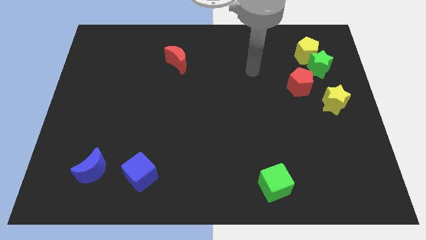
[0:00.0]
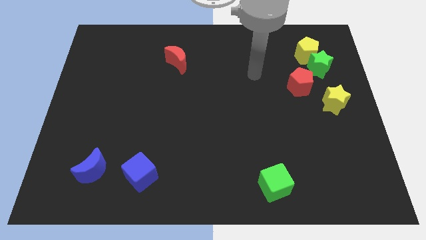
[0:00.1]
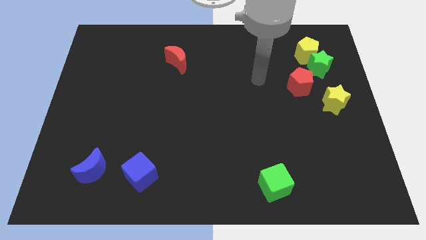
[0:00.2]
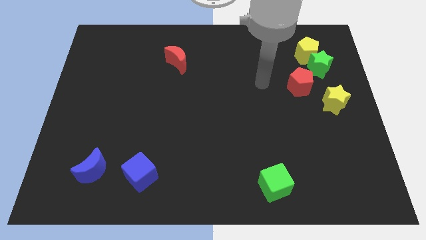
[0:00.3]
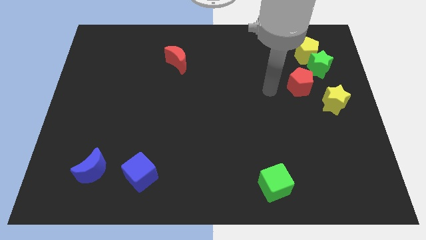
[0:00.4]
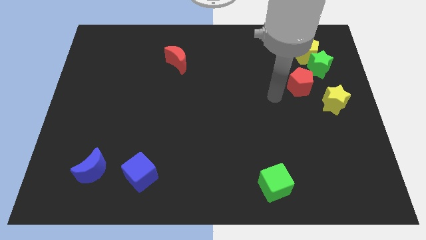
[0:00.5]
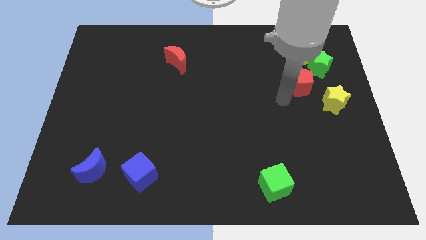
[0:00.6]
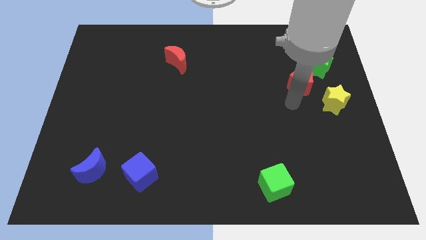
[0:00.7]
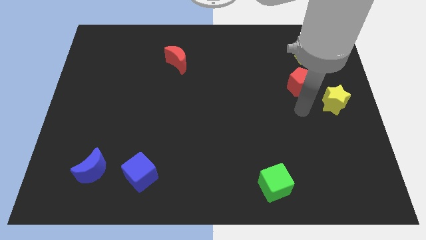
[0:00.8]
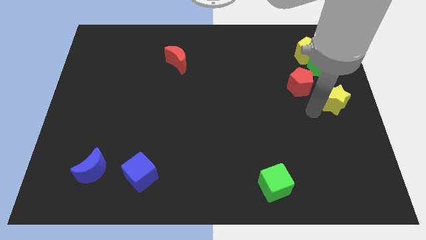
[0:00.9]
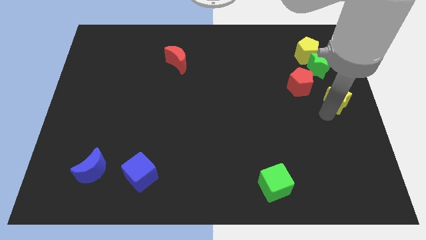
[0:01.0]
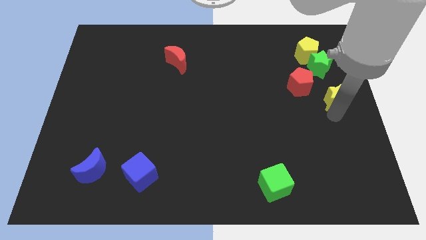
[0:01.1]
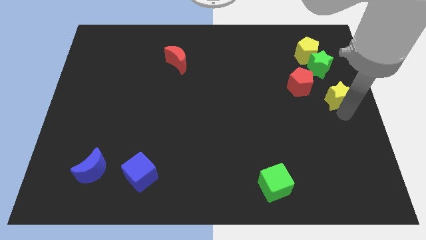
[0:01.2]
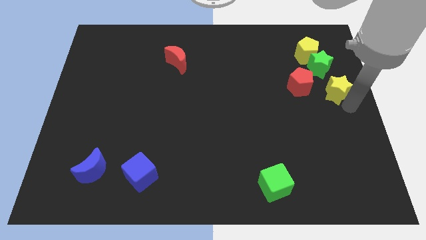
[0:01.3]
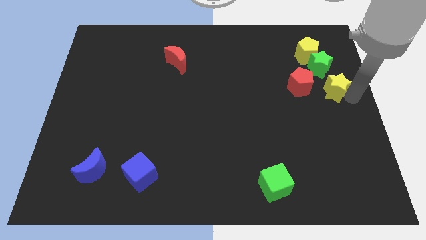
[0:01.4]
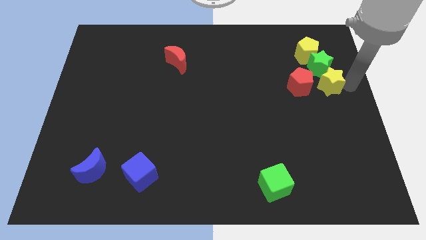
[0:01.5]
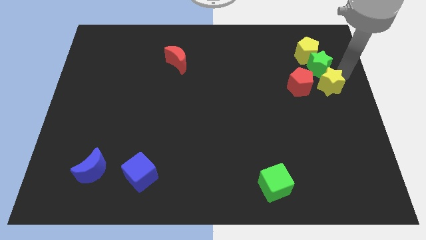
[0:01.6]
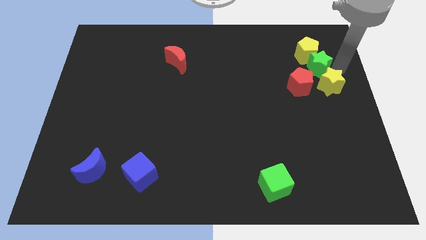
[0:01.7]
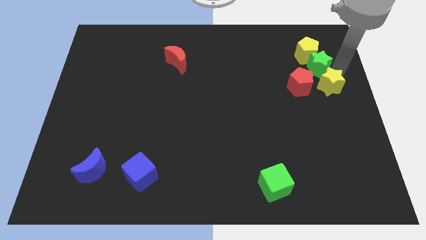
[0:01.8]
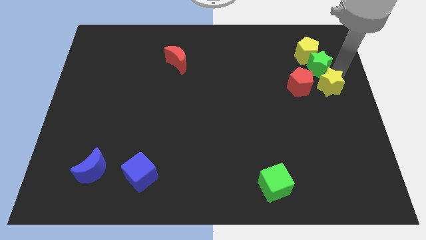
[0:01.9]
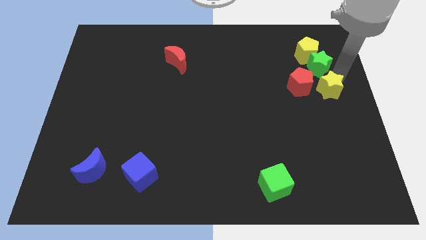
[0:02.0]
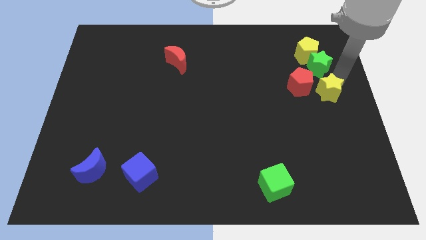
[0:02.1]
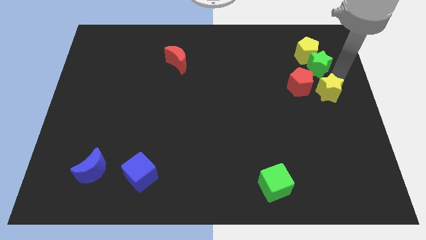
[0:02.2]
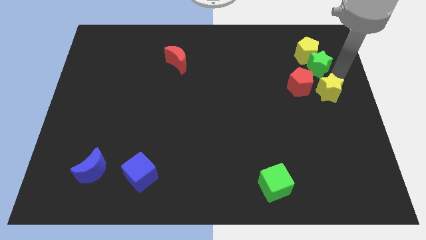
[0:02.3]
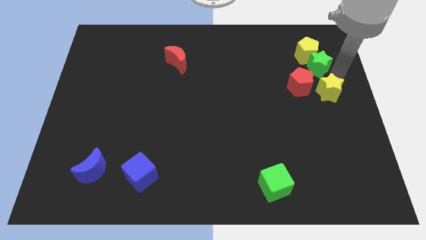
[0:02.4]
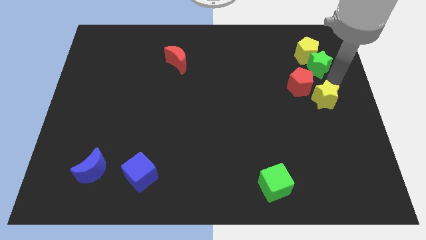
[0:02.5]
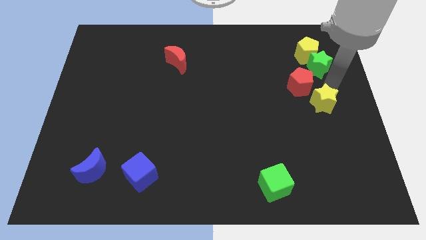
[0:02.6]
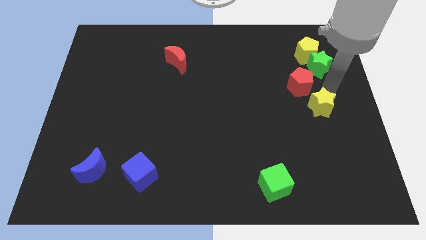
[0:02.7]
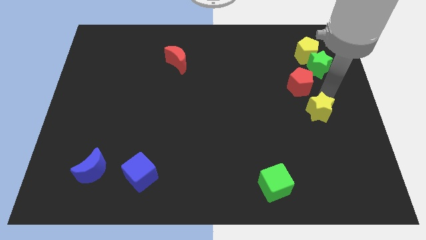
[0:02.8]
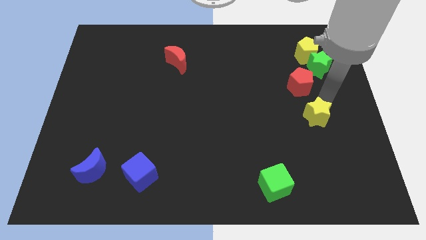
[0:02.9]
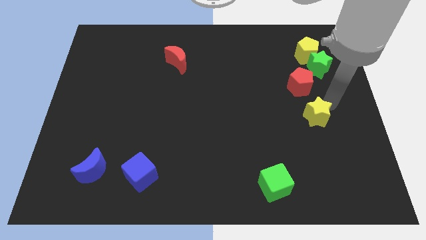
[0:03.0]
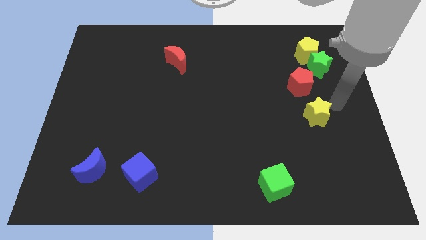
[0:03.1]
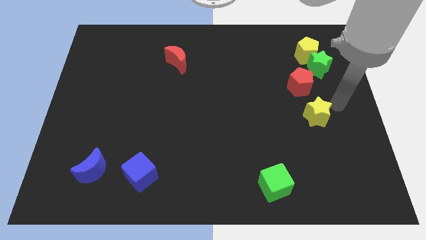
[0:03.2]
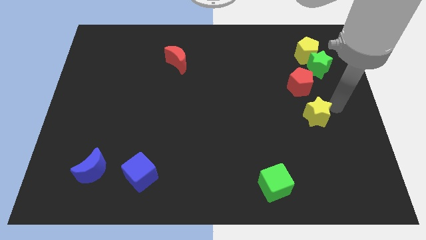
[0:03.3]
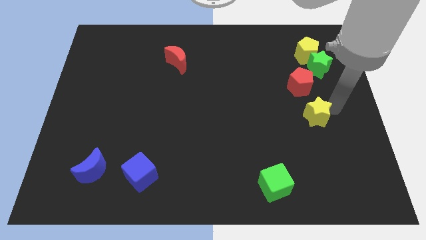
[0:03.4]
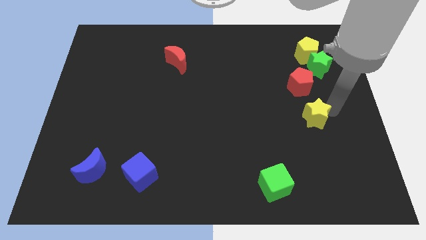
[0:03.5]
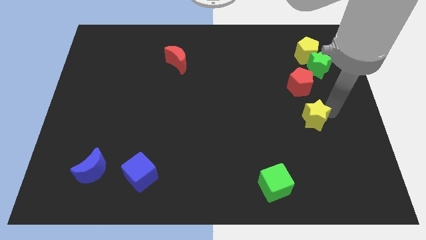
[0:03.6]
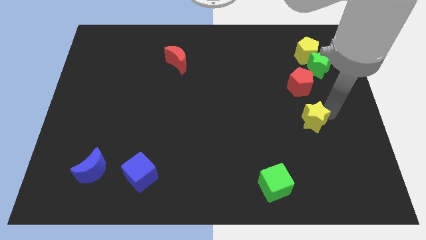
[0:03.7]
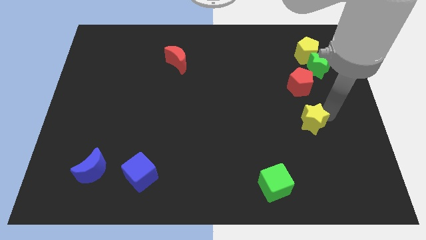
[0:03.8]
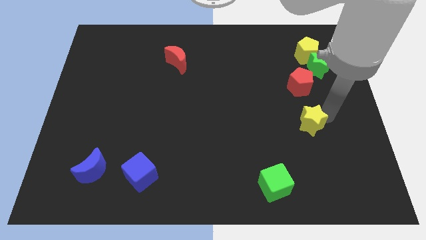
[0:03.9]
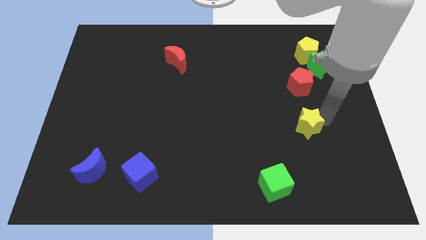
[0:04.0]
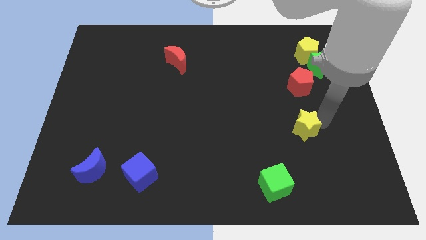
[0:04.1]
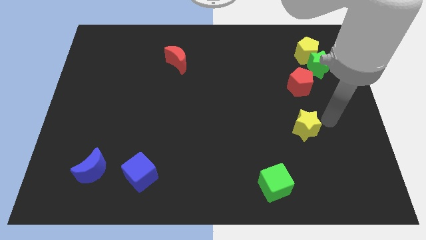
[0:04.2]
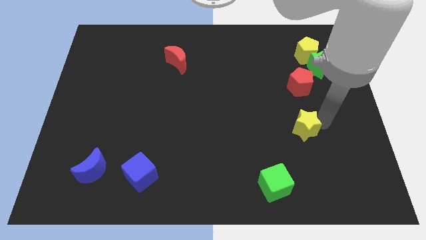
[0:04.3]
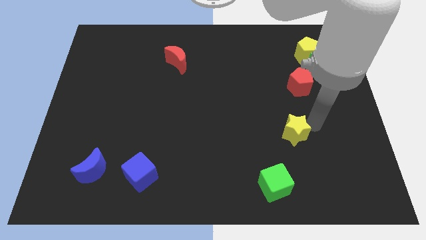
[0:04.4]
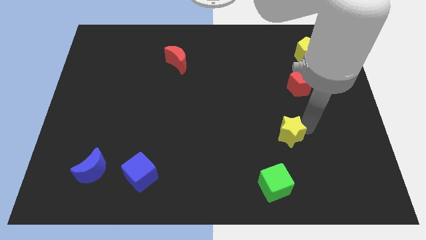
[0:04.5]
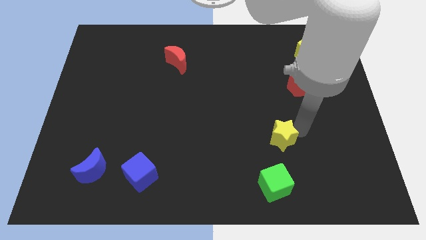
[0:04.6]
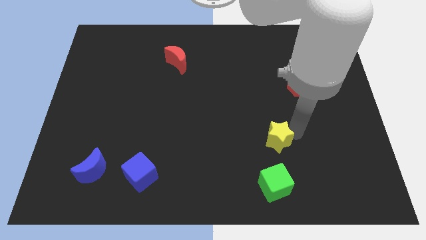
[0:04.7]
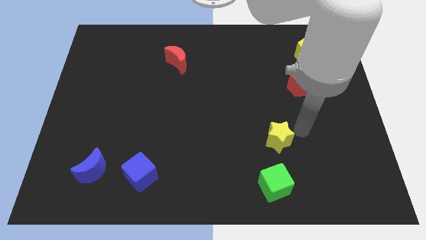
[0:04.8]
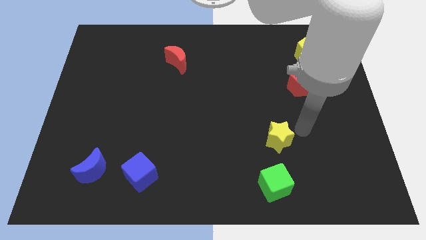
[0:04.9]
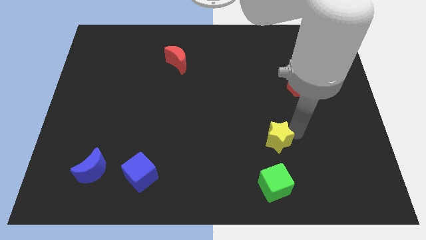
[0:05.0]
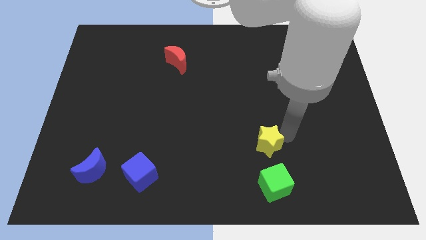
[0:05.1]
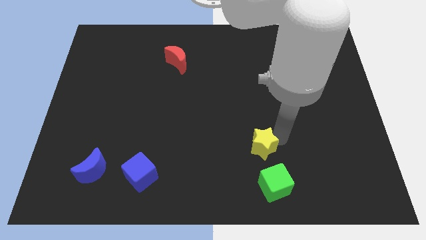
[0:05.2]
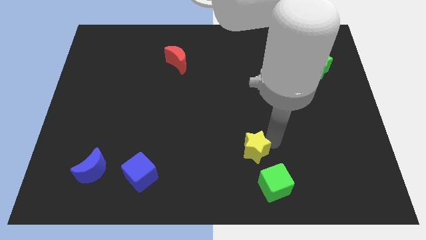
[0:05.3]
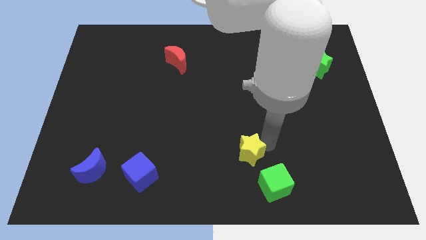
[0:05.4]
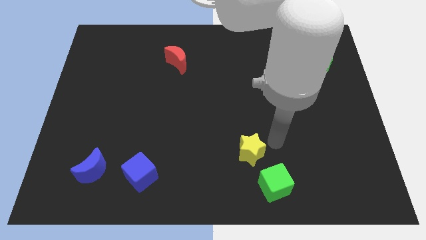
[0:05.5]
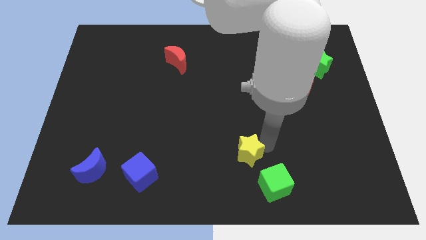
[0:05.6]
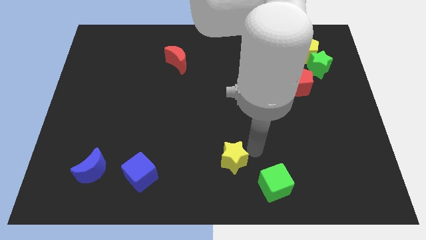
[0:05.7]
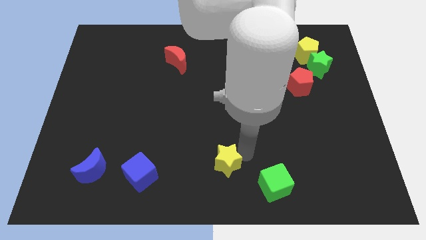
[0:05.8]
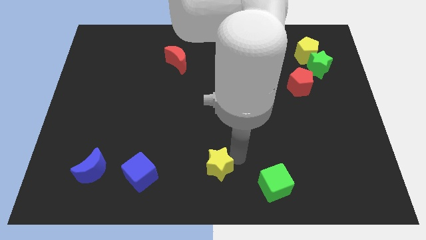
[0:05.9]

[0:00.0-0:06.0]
push the yellow star right of the blue cube

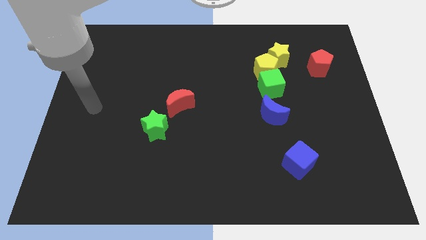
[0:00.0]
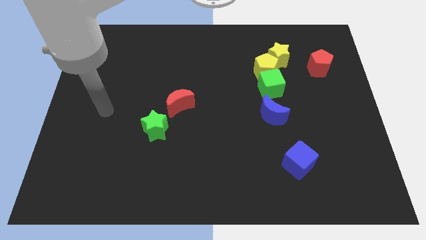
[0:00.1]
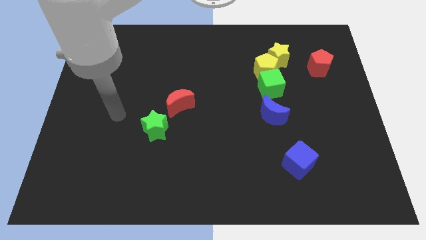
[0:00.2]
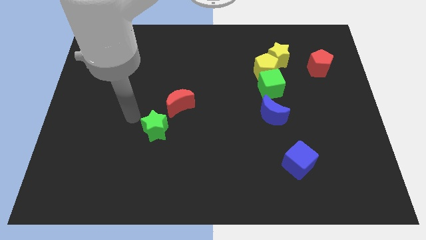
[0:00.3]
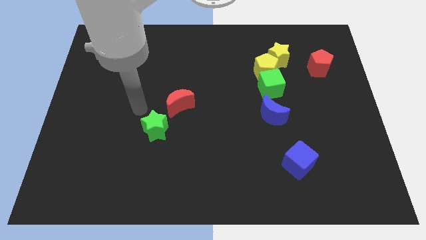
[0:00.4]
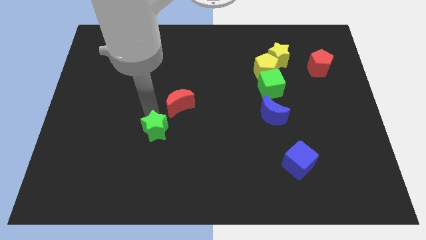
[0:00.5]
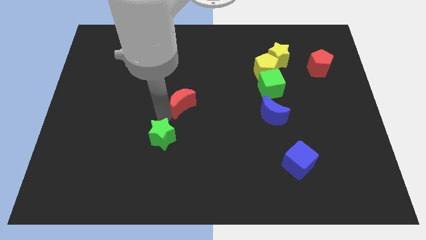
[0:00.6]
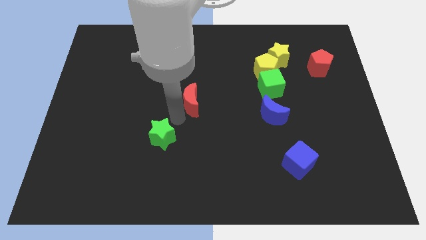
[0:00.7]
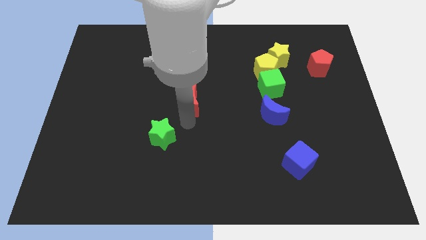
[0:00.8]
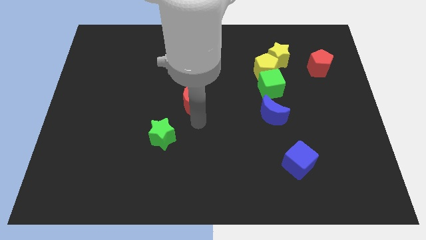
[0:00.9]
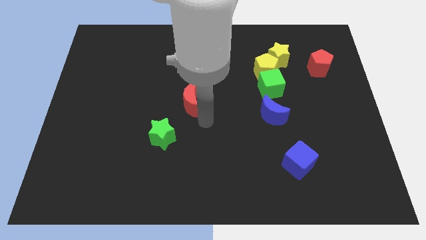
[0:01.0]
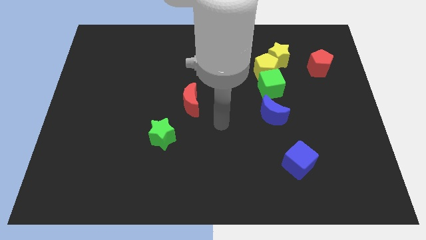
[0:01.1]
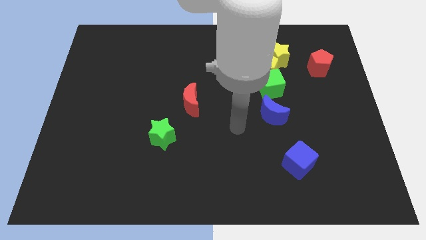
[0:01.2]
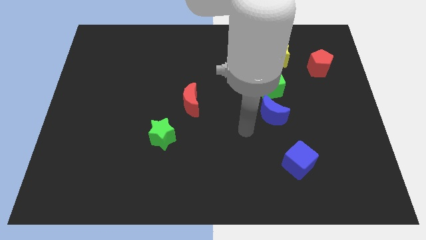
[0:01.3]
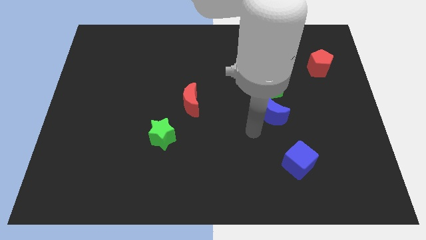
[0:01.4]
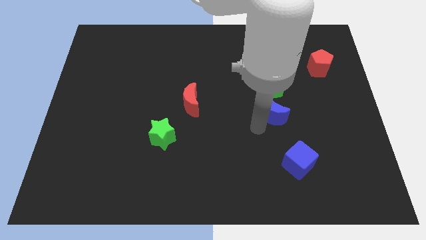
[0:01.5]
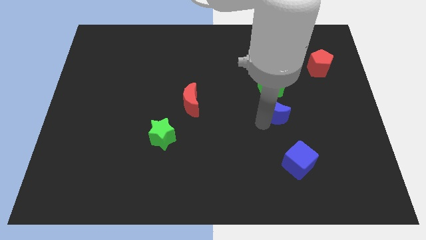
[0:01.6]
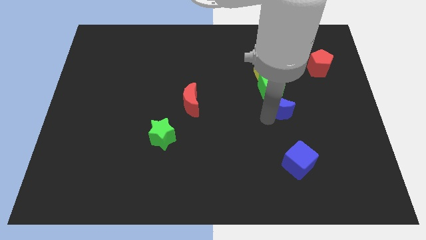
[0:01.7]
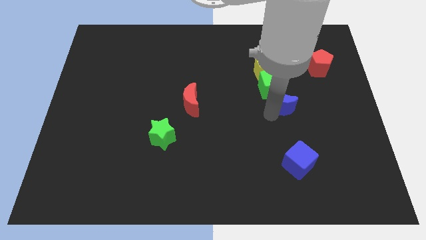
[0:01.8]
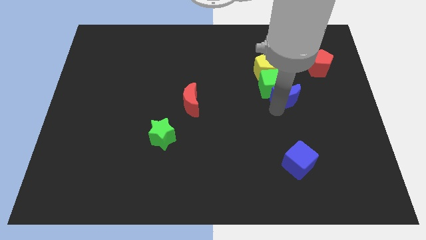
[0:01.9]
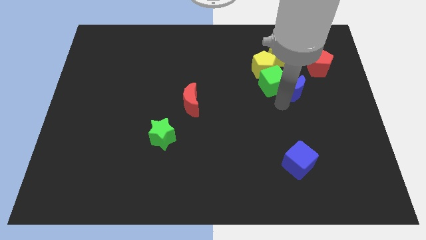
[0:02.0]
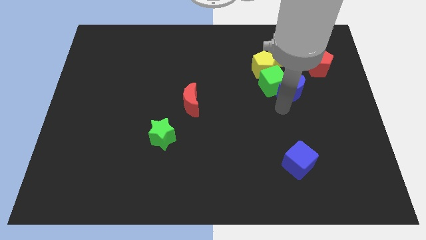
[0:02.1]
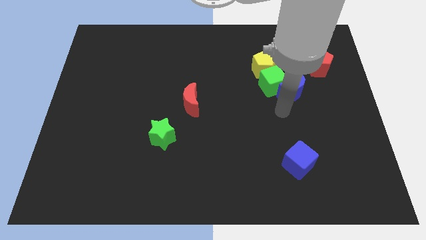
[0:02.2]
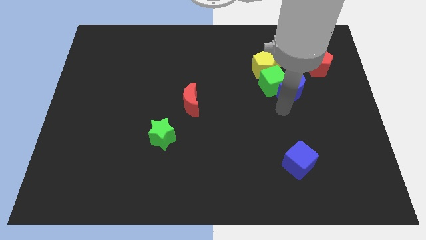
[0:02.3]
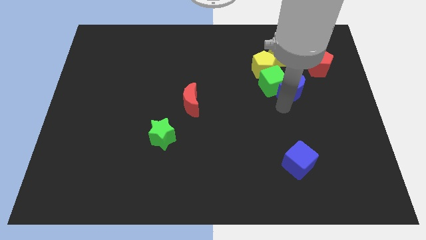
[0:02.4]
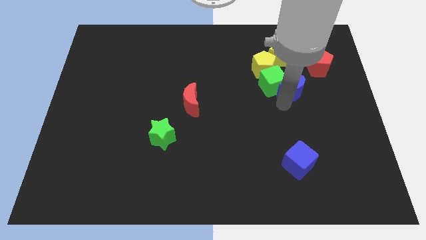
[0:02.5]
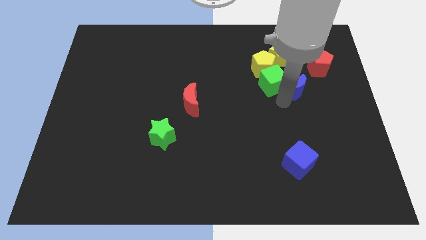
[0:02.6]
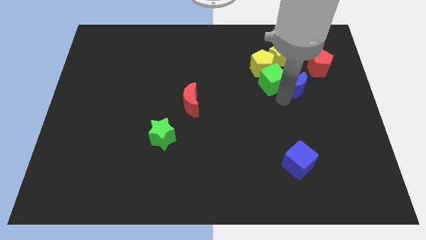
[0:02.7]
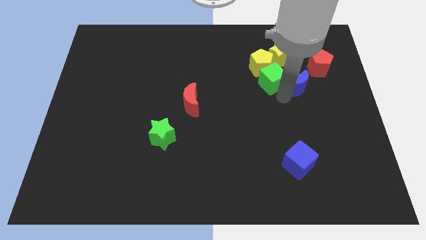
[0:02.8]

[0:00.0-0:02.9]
push the blue moon to the bottom right side of the yellow star
